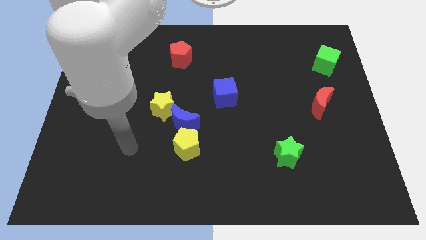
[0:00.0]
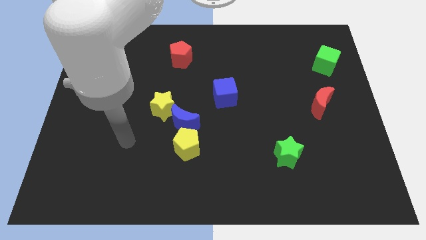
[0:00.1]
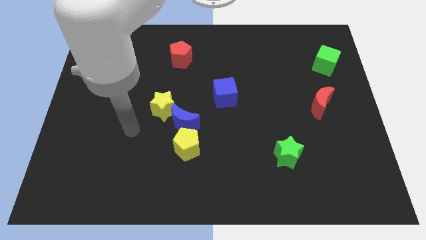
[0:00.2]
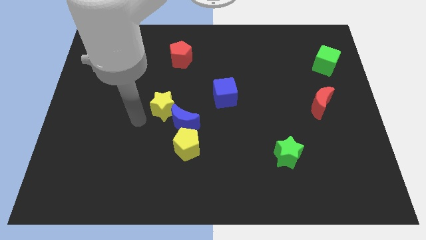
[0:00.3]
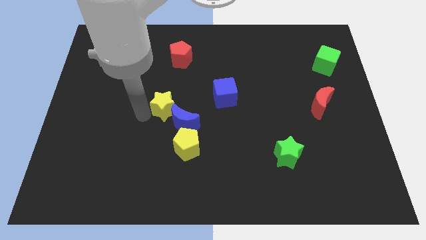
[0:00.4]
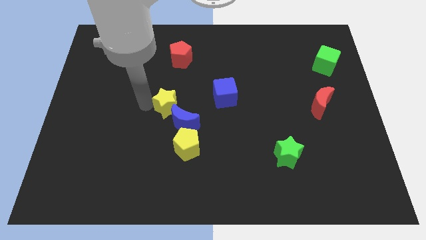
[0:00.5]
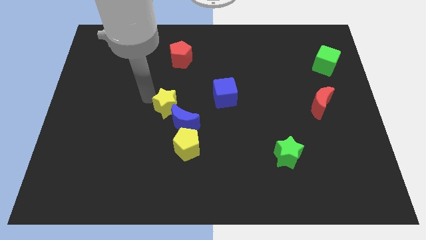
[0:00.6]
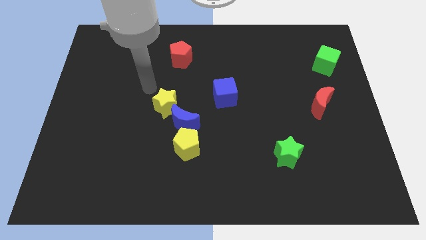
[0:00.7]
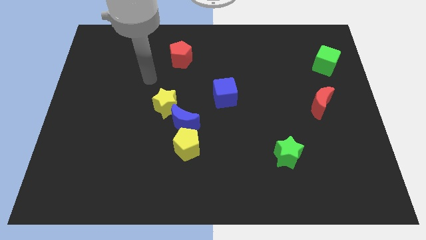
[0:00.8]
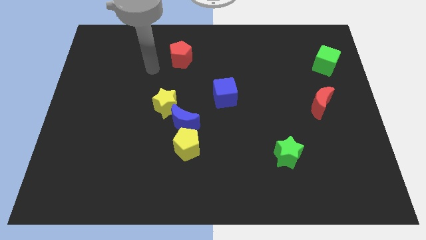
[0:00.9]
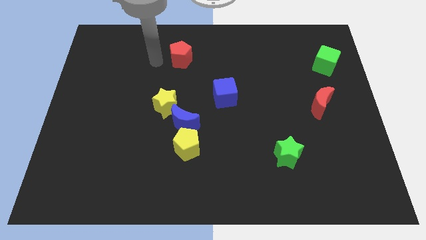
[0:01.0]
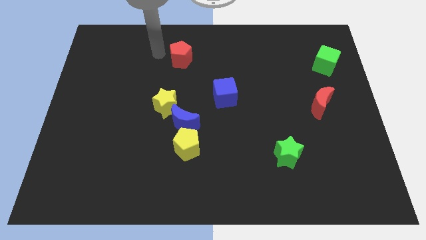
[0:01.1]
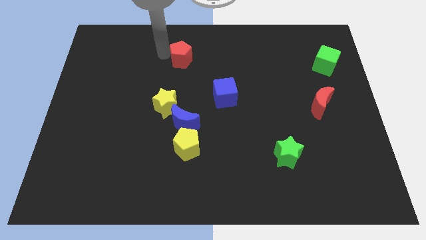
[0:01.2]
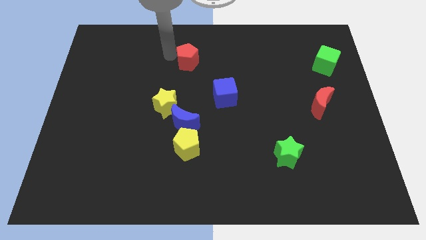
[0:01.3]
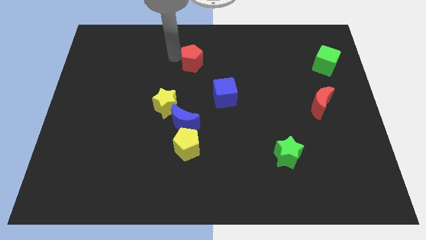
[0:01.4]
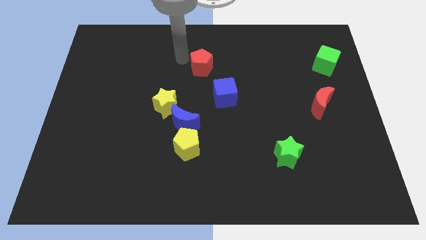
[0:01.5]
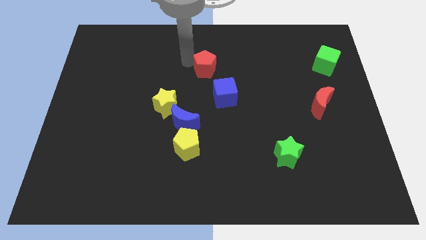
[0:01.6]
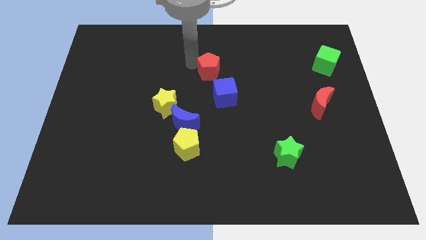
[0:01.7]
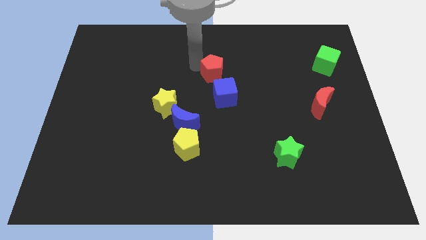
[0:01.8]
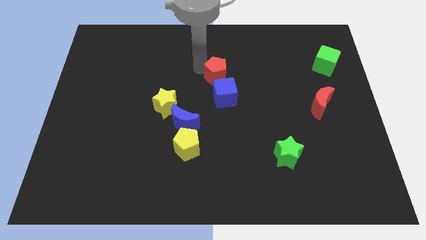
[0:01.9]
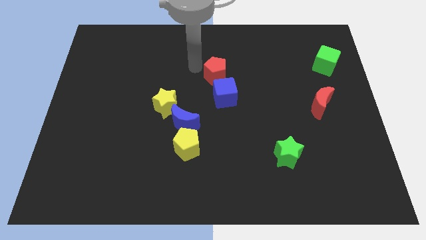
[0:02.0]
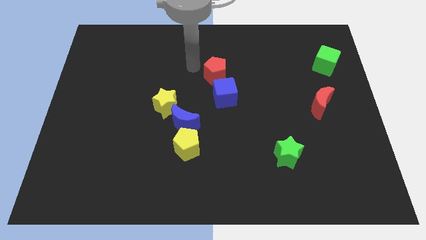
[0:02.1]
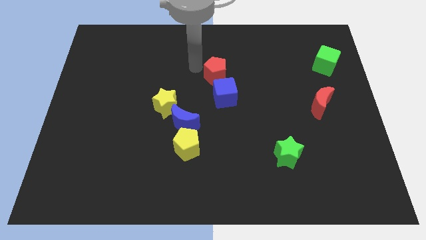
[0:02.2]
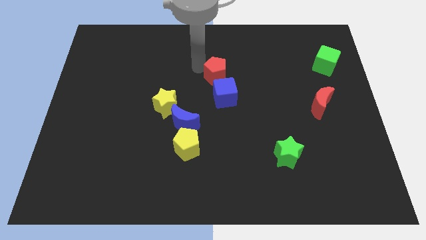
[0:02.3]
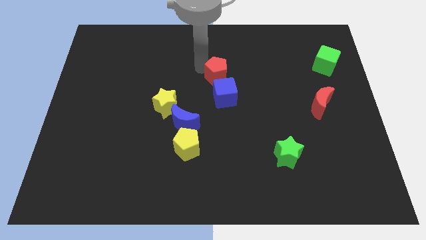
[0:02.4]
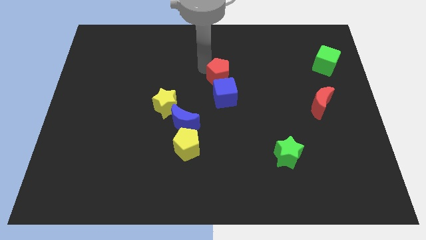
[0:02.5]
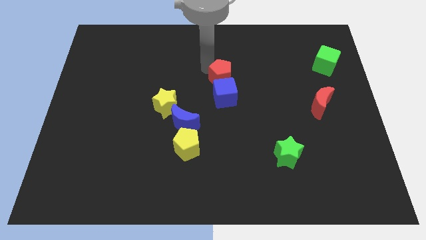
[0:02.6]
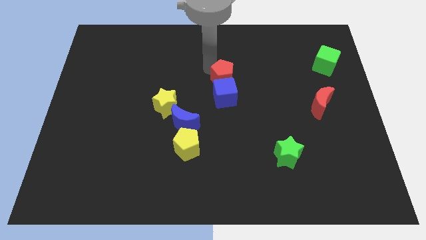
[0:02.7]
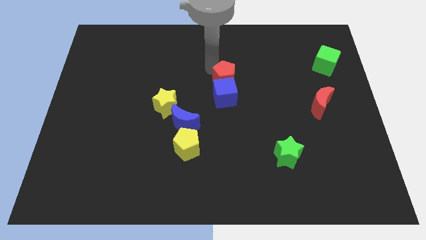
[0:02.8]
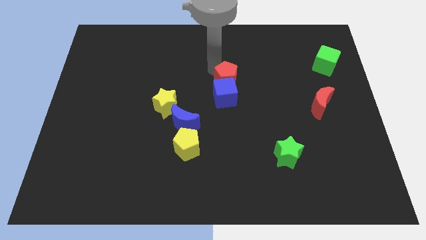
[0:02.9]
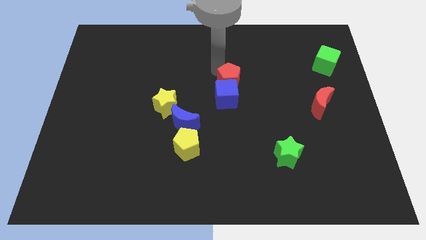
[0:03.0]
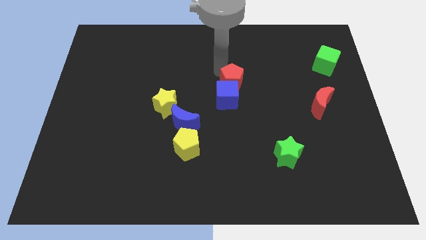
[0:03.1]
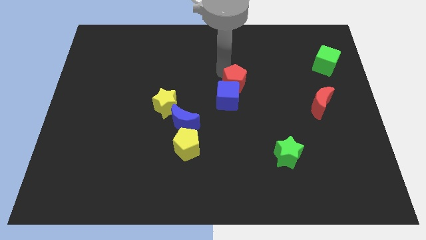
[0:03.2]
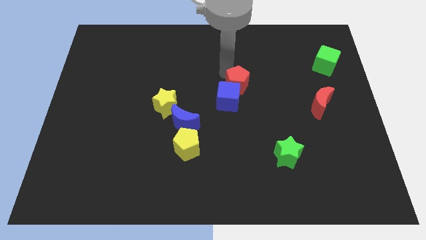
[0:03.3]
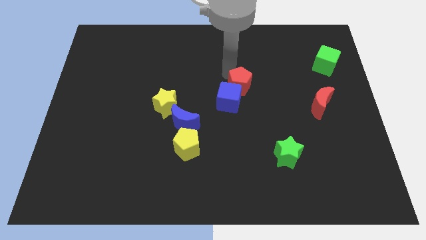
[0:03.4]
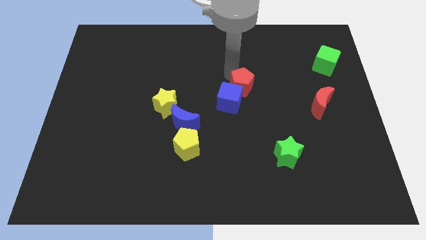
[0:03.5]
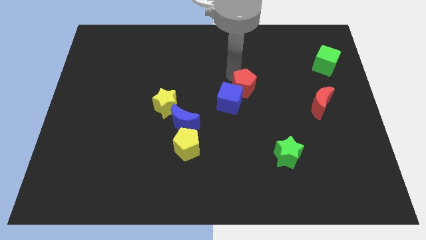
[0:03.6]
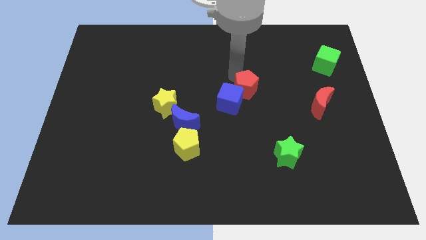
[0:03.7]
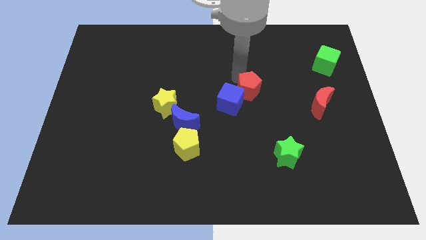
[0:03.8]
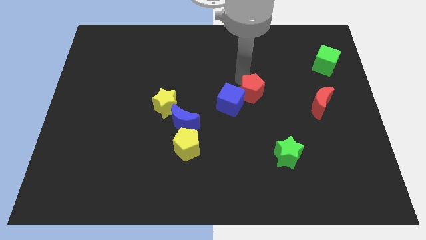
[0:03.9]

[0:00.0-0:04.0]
move the red pentagon diagonally down and to the right

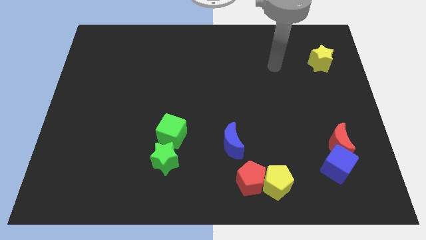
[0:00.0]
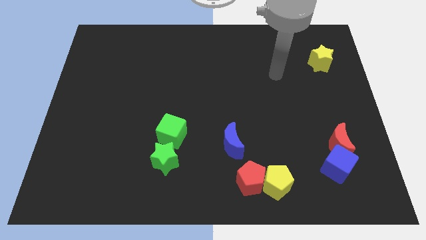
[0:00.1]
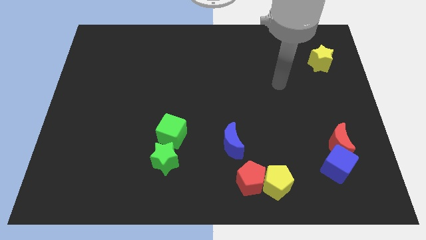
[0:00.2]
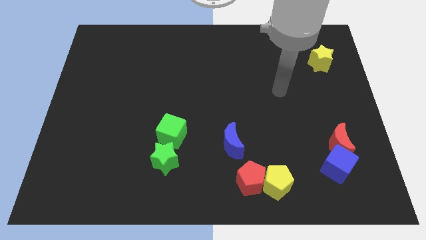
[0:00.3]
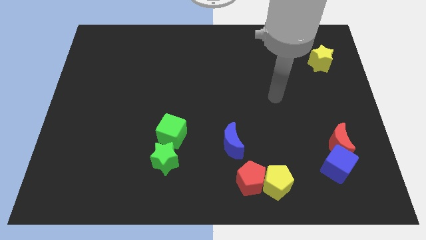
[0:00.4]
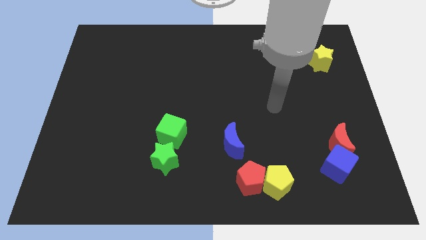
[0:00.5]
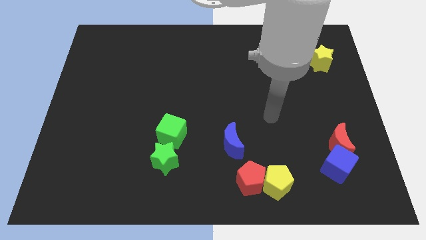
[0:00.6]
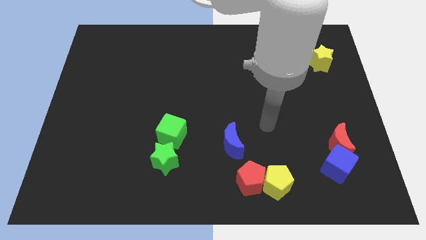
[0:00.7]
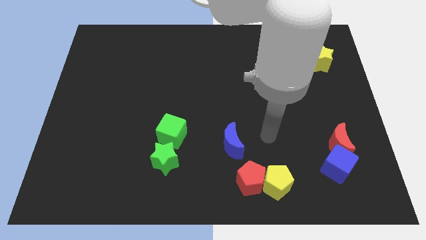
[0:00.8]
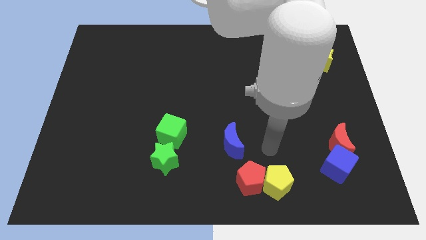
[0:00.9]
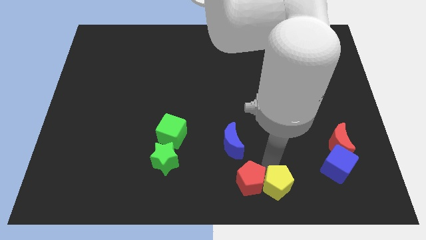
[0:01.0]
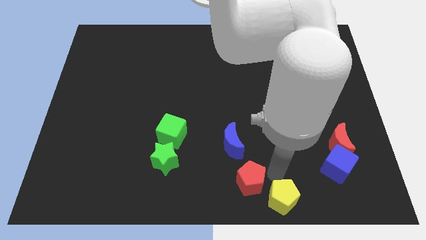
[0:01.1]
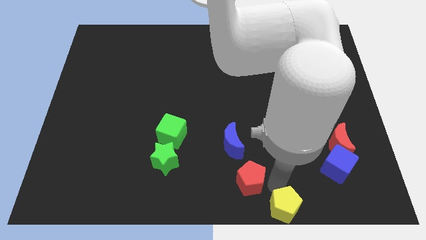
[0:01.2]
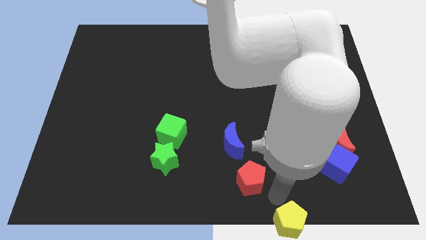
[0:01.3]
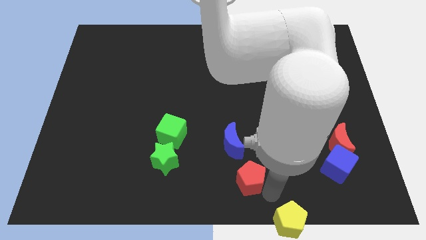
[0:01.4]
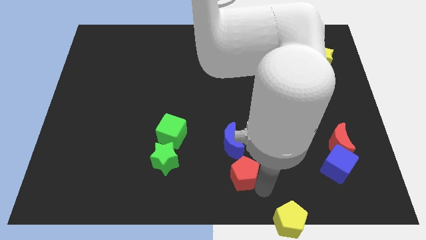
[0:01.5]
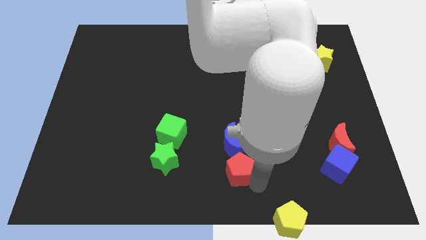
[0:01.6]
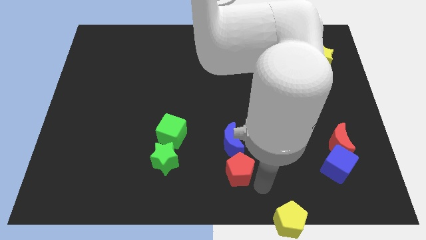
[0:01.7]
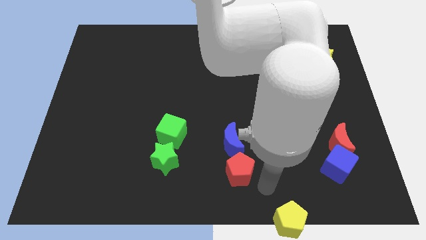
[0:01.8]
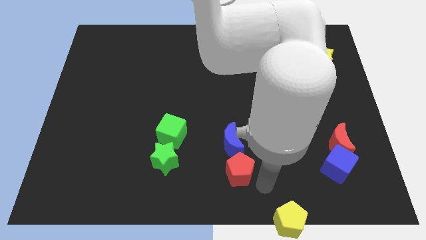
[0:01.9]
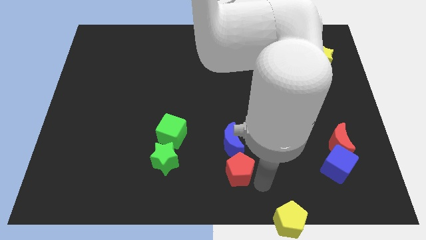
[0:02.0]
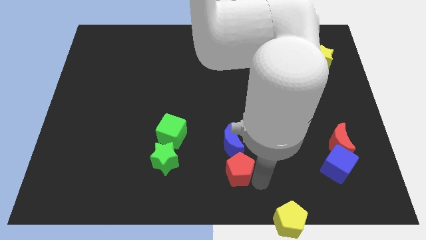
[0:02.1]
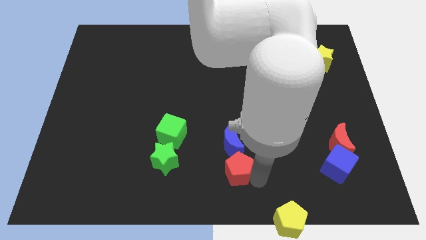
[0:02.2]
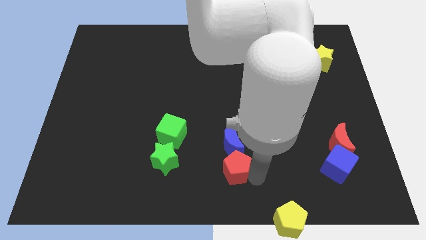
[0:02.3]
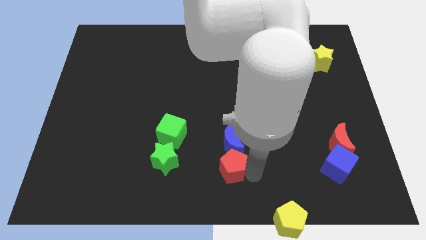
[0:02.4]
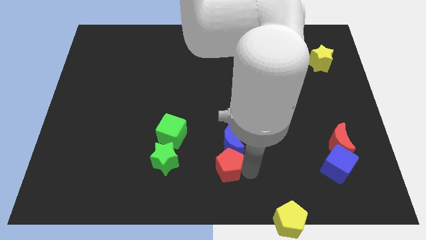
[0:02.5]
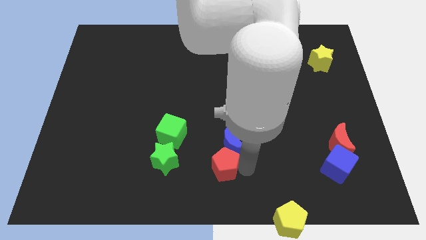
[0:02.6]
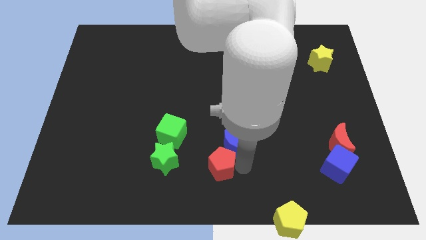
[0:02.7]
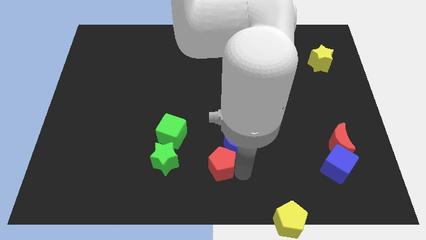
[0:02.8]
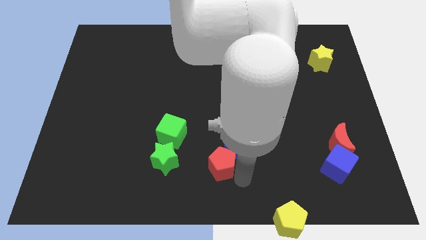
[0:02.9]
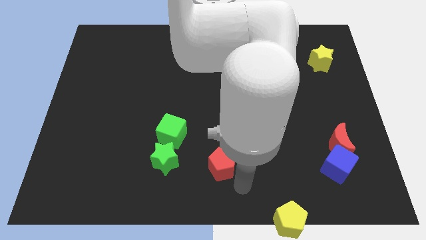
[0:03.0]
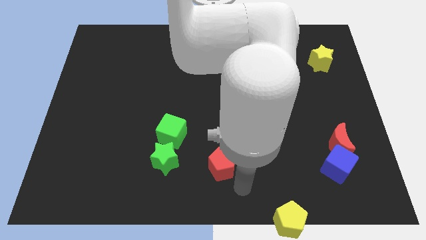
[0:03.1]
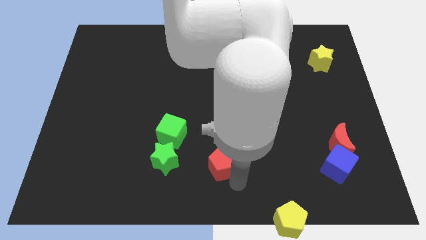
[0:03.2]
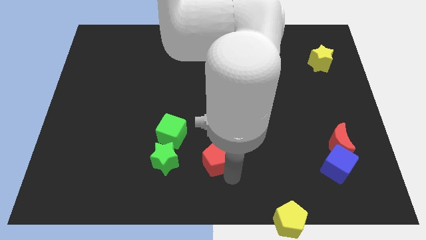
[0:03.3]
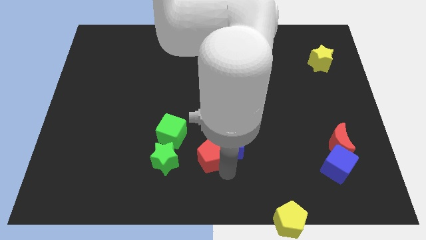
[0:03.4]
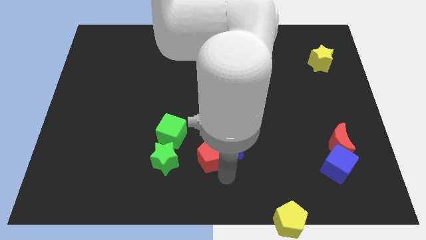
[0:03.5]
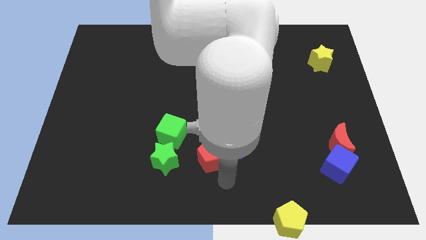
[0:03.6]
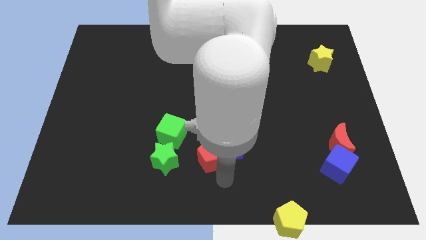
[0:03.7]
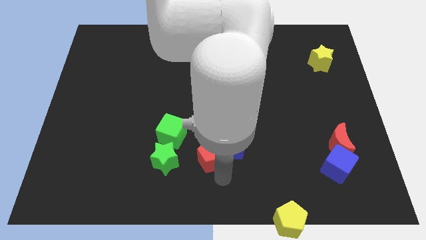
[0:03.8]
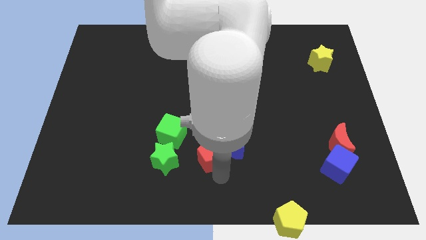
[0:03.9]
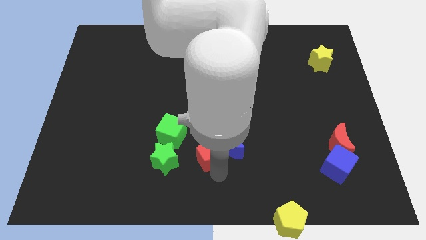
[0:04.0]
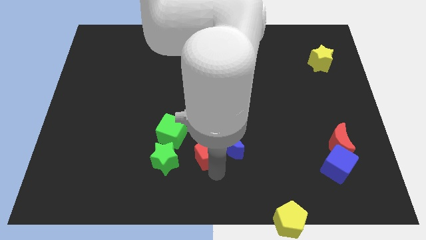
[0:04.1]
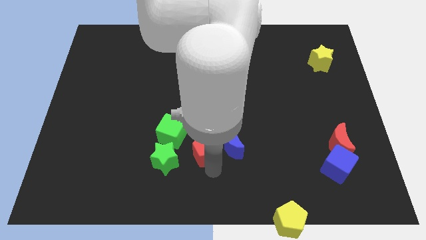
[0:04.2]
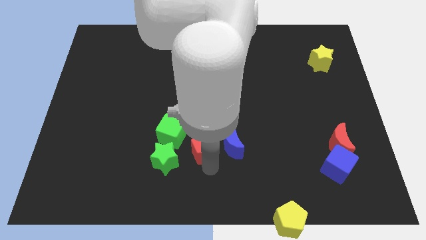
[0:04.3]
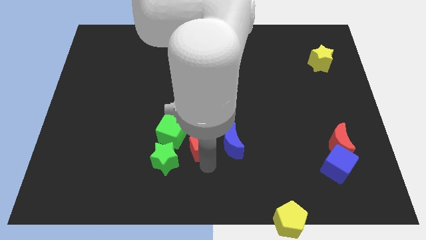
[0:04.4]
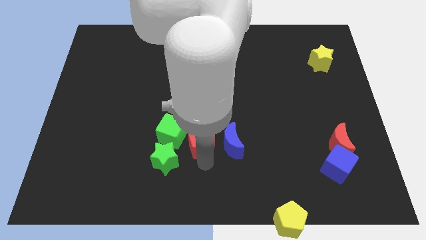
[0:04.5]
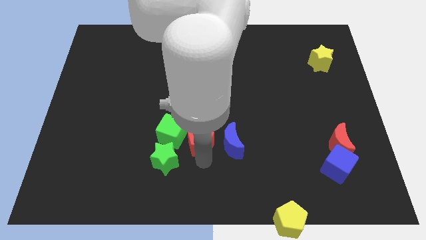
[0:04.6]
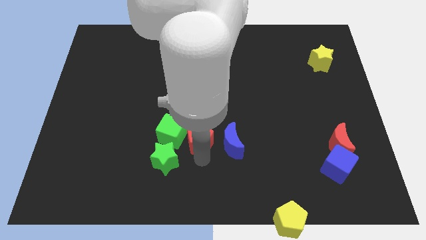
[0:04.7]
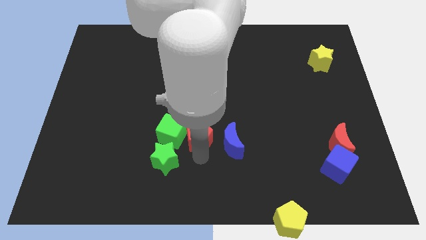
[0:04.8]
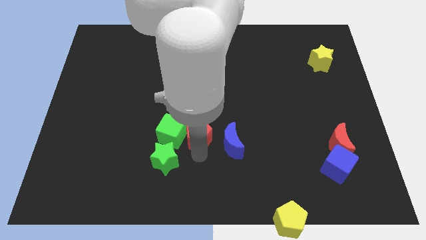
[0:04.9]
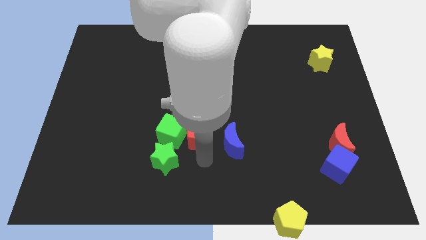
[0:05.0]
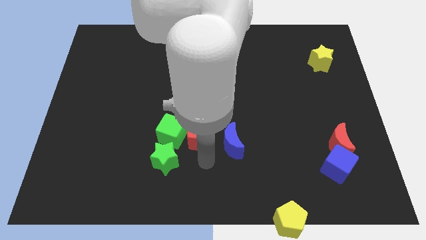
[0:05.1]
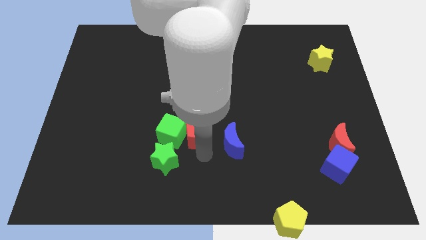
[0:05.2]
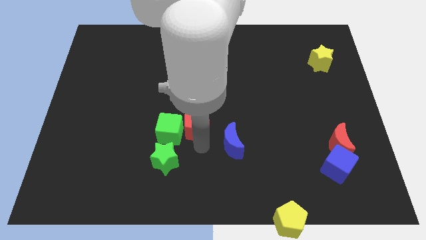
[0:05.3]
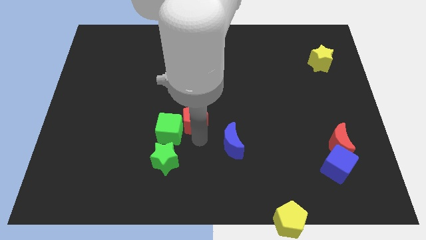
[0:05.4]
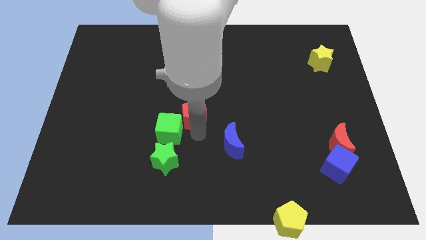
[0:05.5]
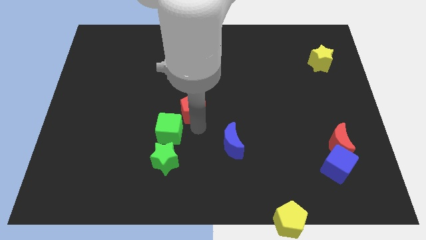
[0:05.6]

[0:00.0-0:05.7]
push the red pentagon upwards and to the left diagonally
